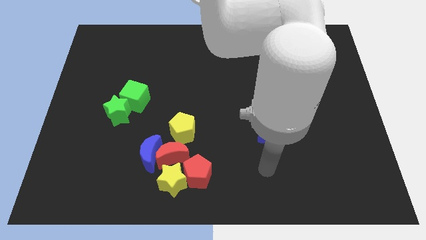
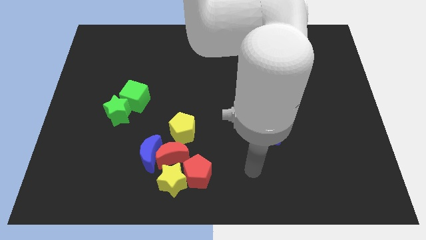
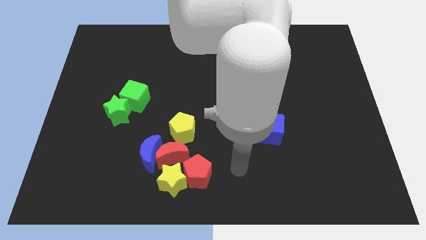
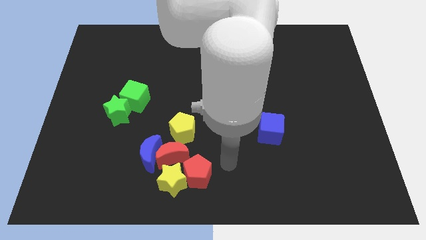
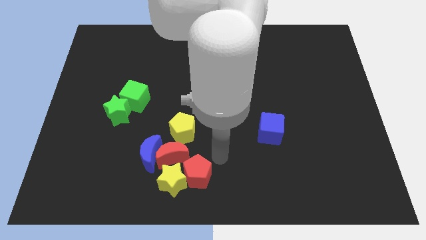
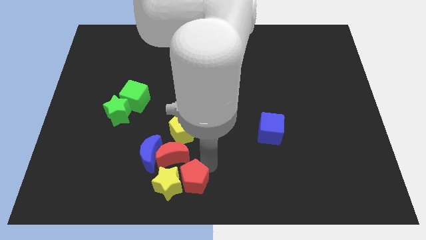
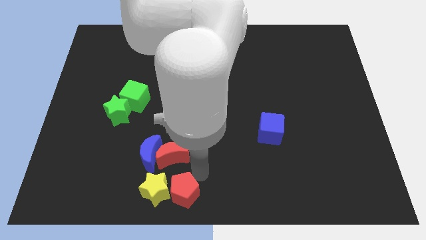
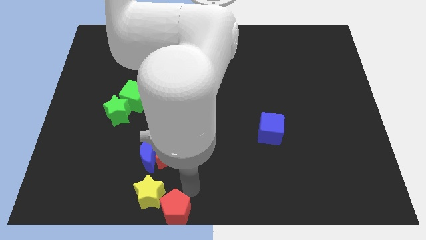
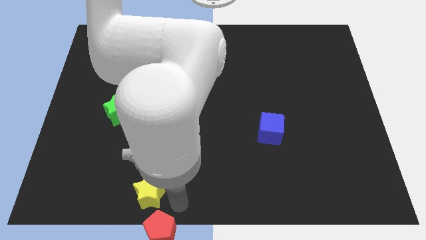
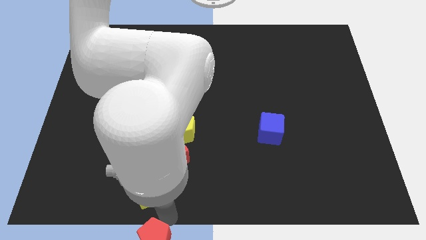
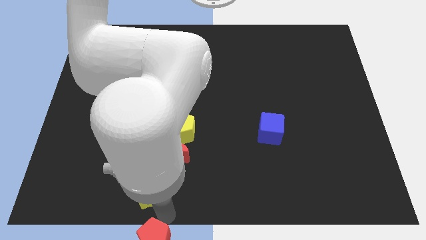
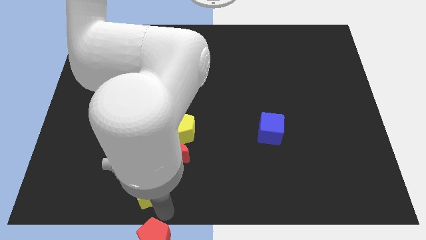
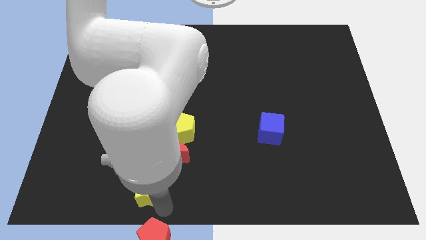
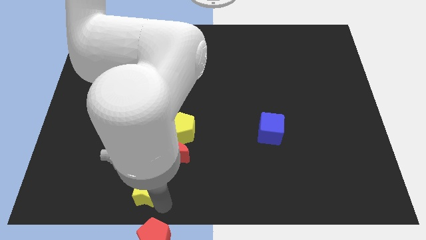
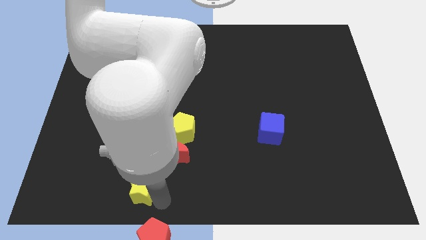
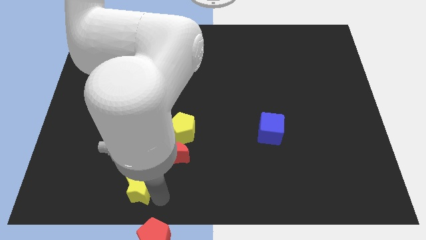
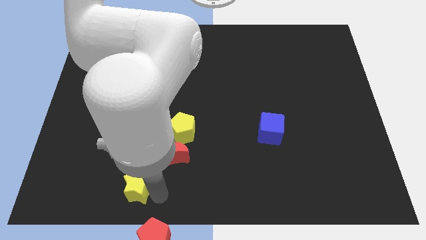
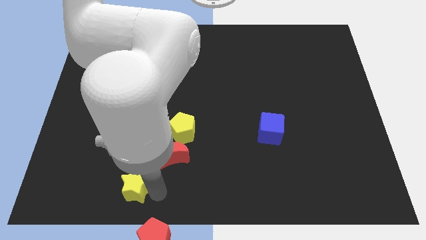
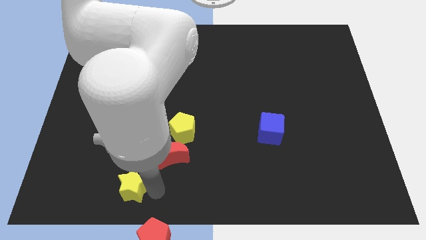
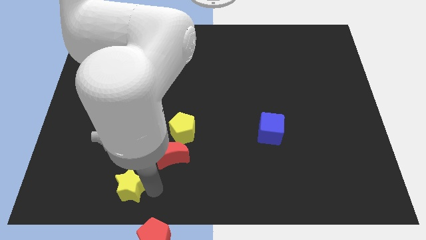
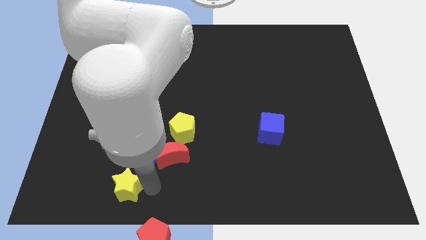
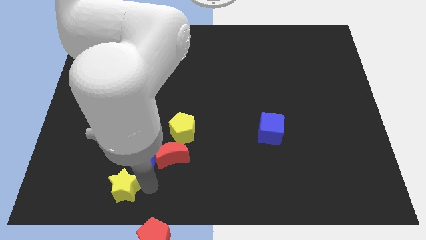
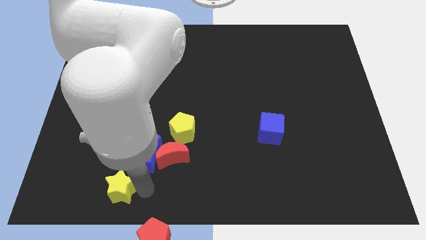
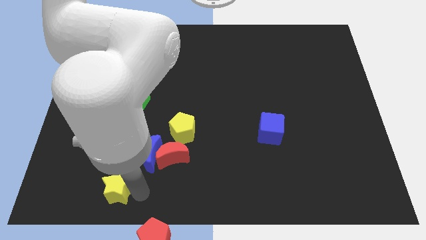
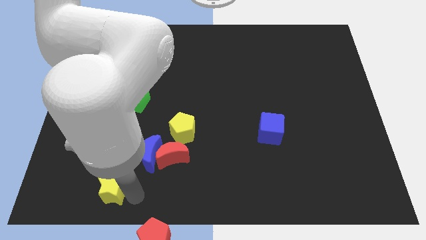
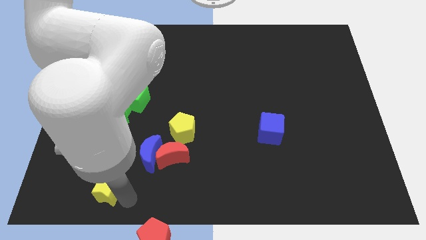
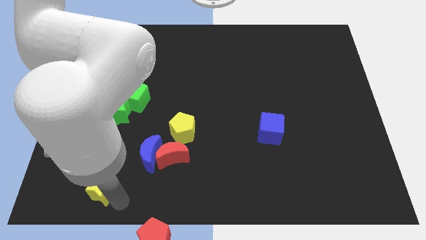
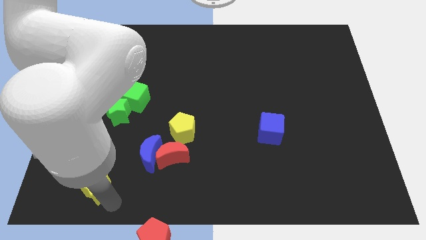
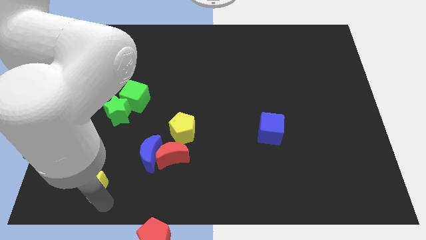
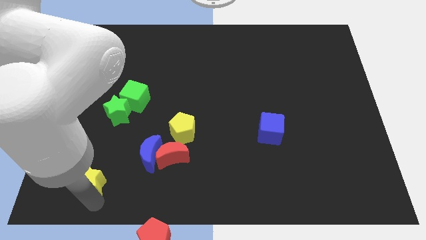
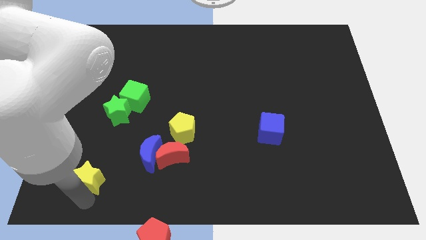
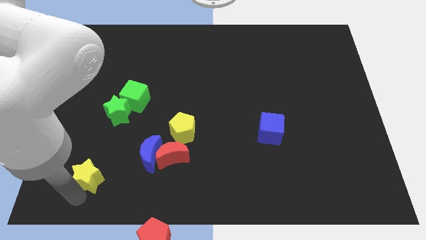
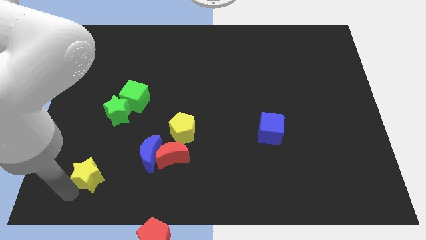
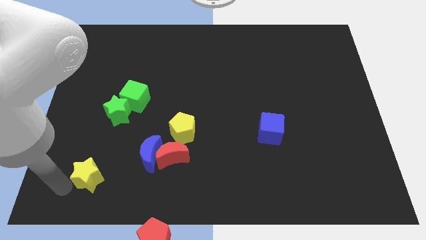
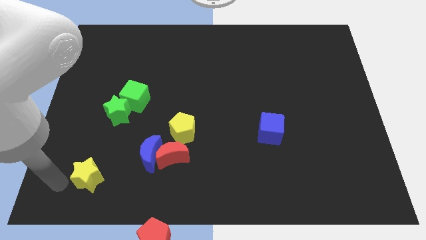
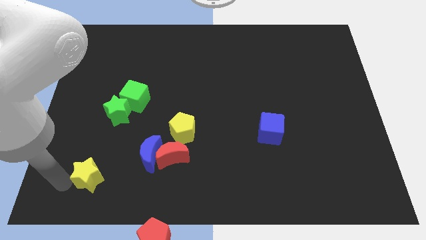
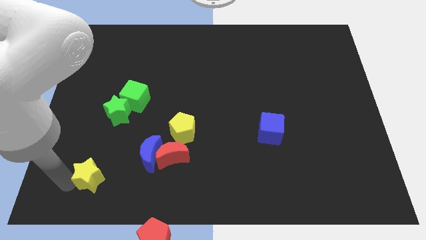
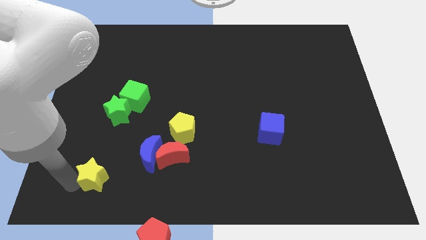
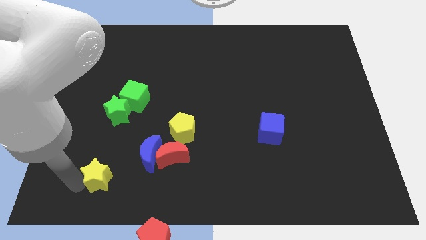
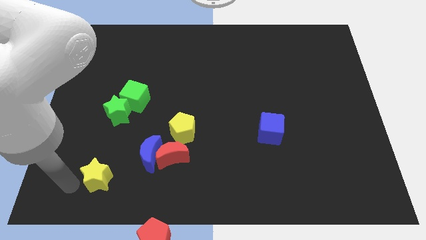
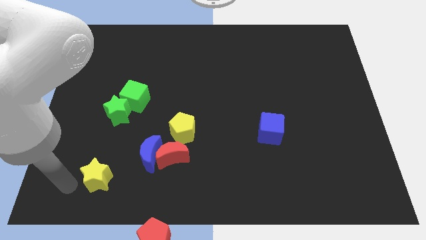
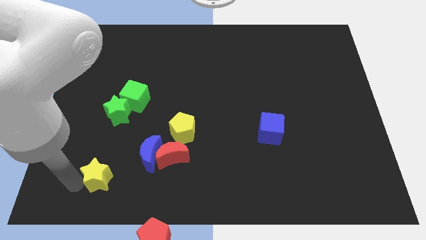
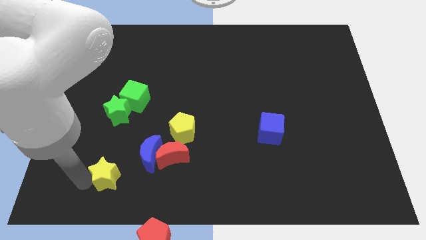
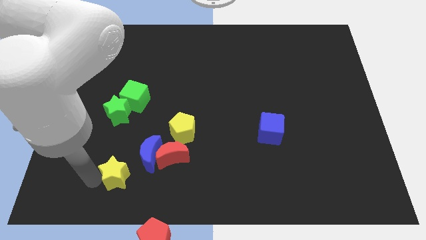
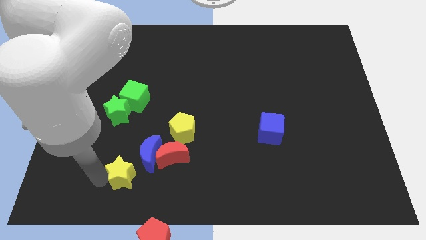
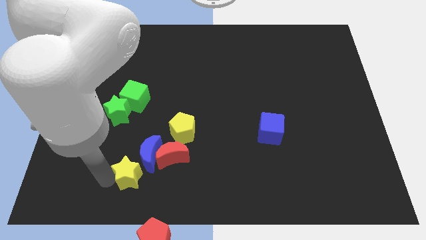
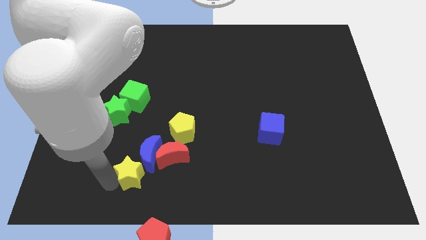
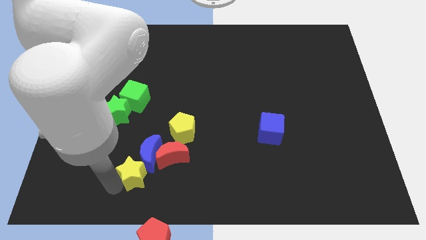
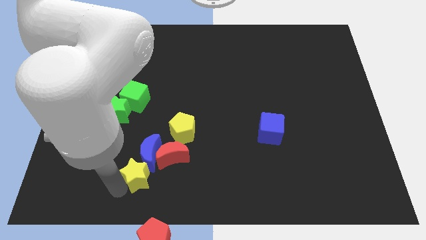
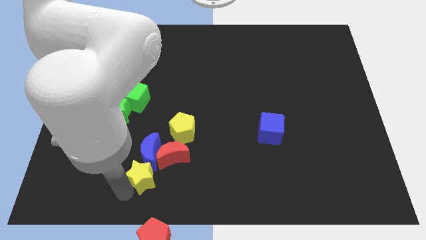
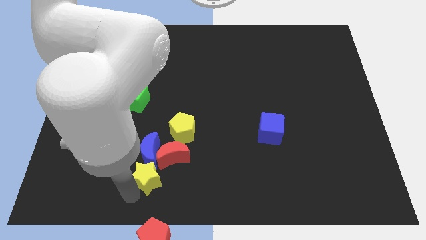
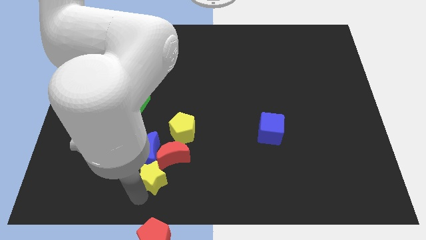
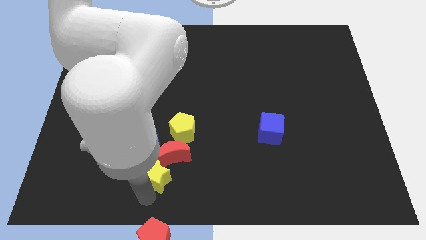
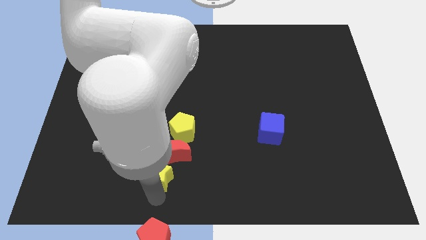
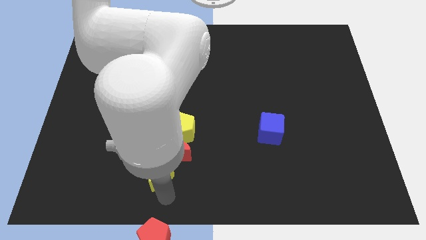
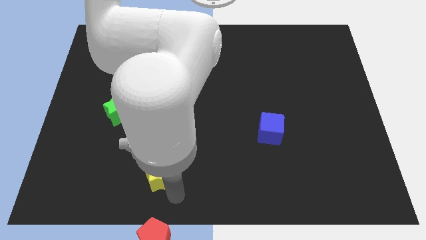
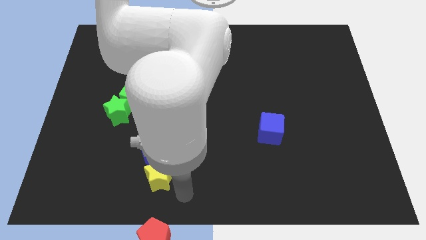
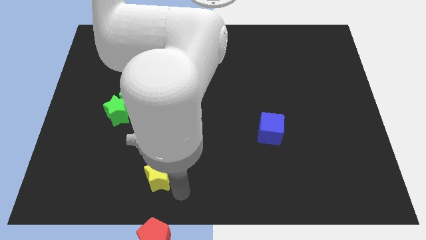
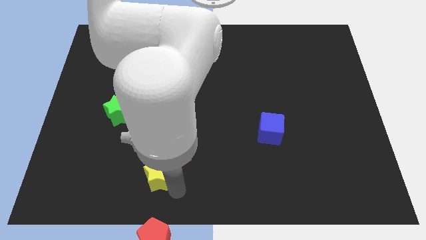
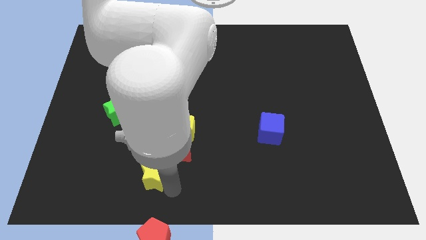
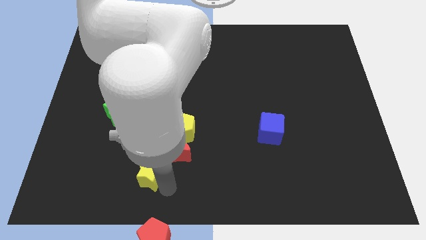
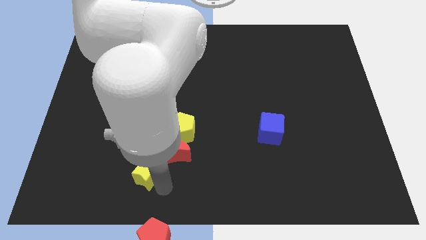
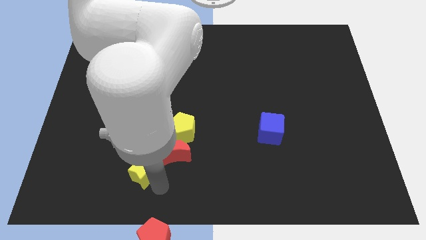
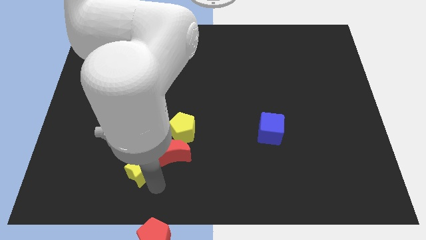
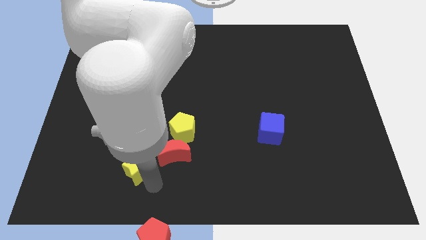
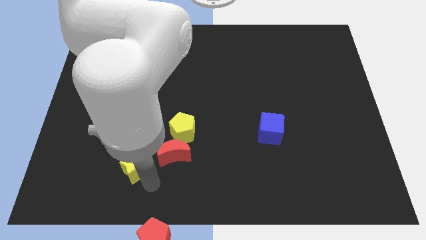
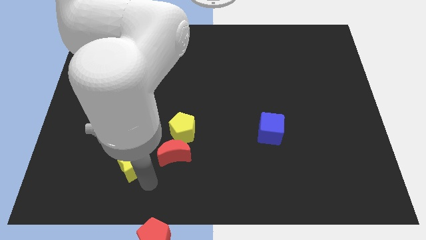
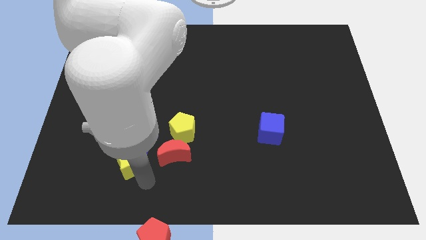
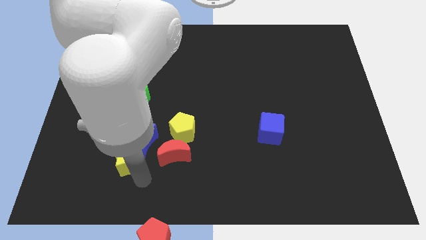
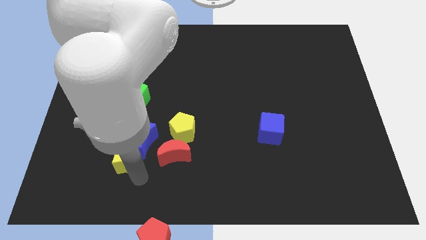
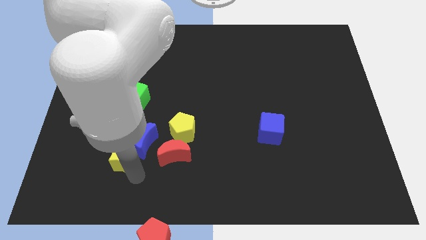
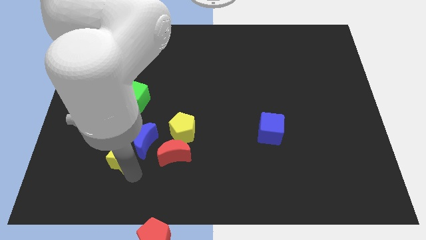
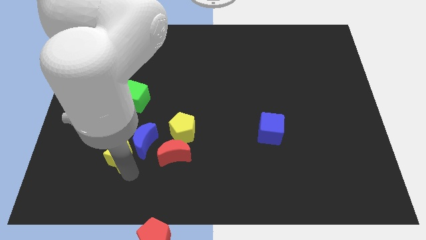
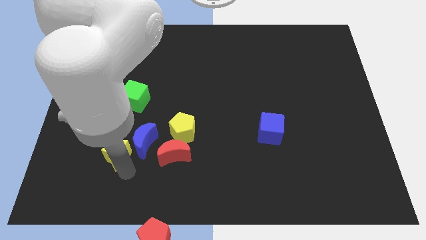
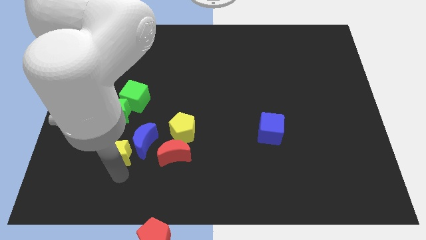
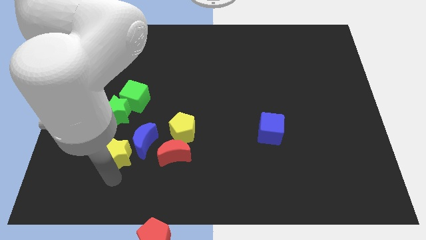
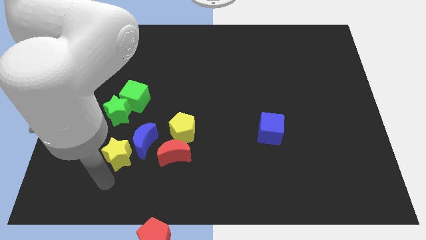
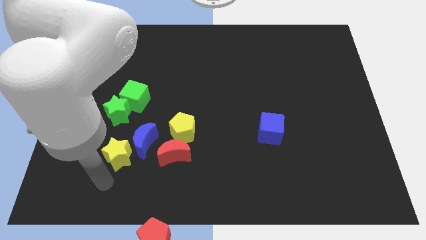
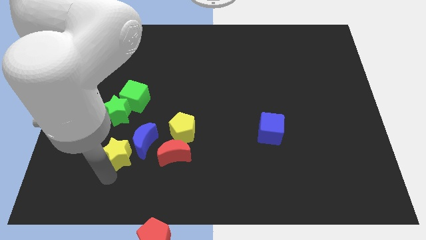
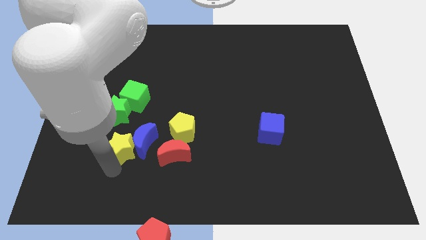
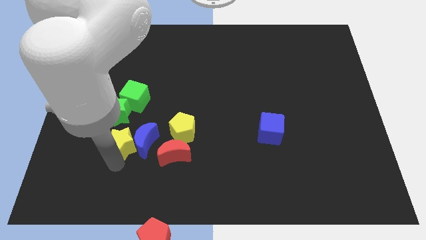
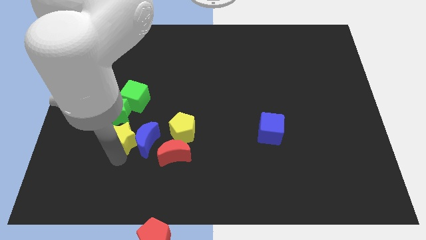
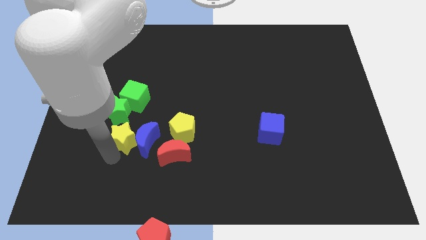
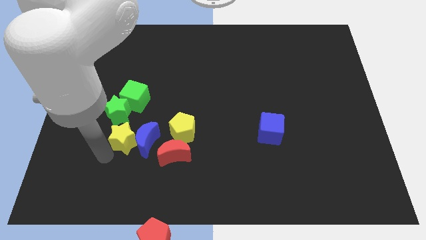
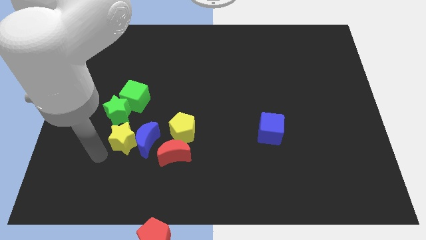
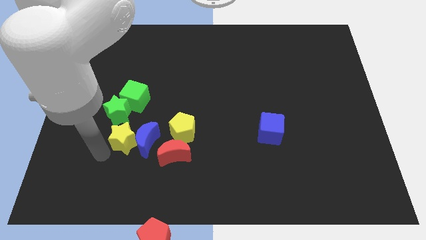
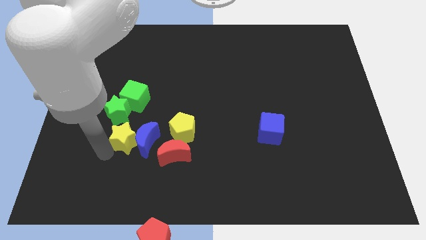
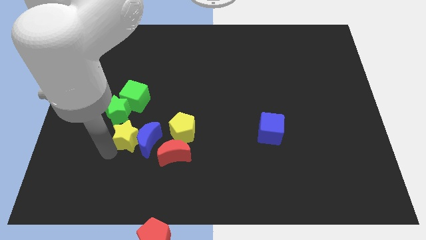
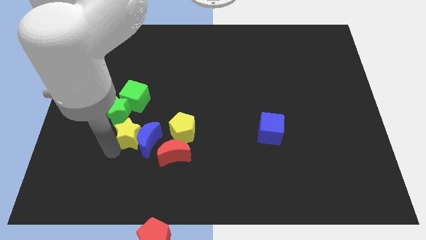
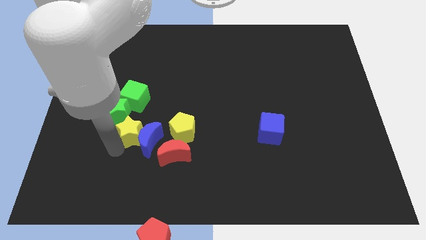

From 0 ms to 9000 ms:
move the yellow star a little up
